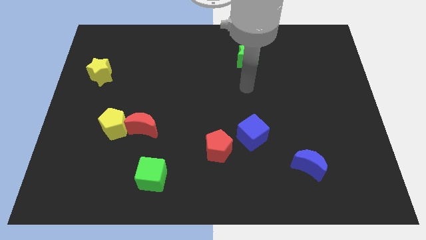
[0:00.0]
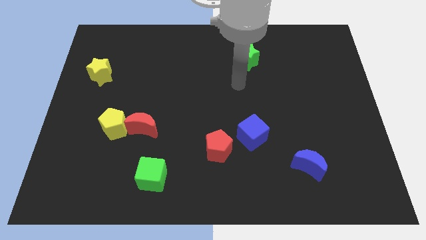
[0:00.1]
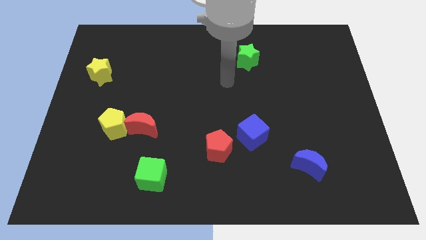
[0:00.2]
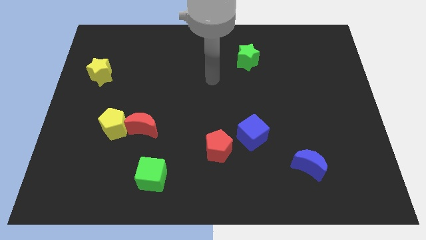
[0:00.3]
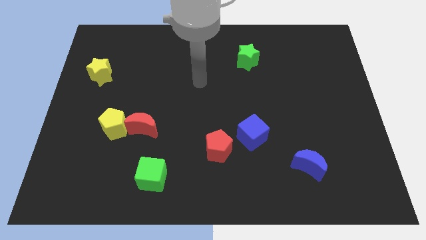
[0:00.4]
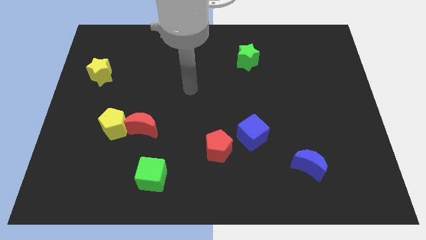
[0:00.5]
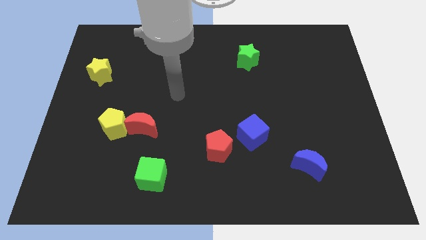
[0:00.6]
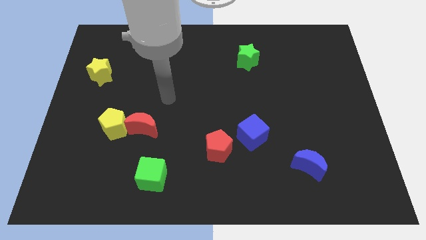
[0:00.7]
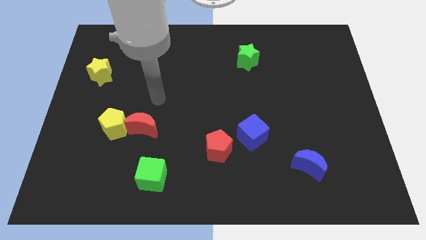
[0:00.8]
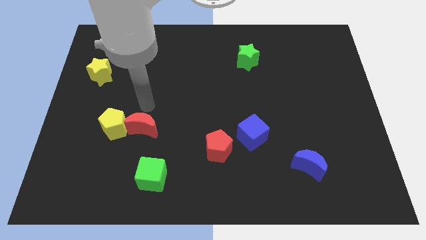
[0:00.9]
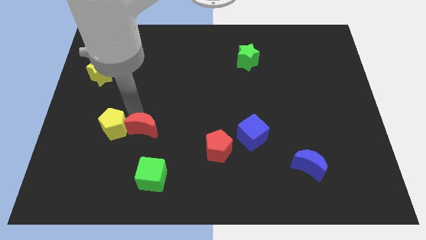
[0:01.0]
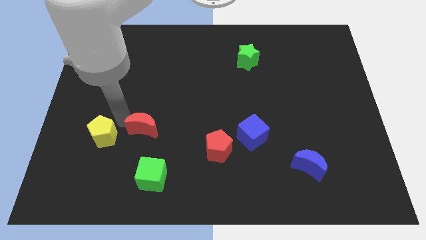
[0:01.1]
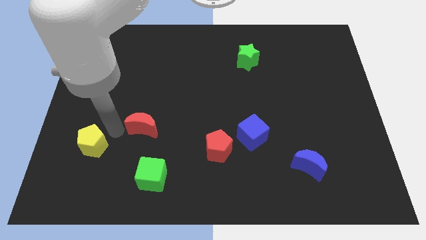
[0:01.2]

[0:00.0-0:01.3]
pull the red moon apart from the yellow pentagon

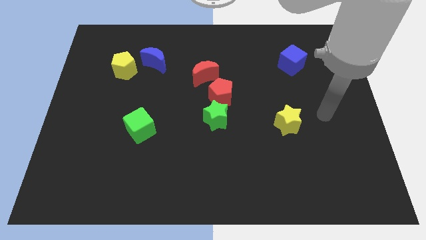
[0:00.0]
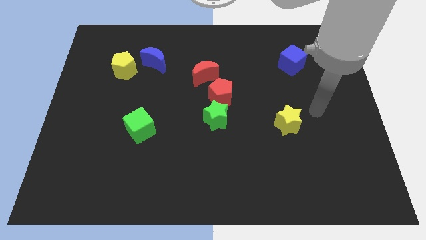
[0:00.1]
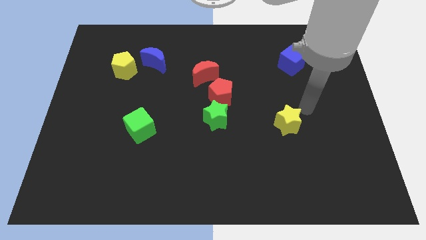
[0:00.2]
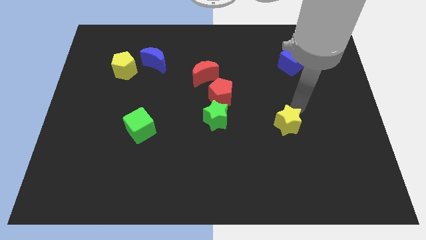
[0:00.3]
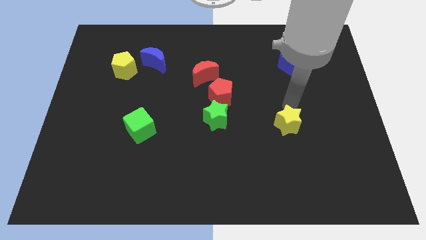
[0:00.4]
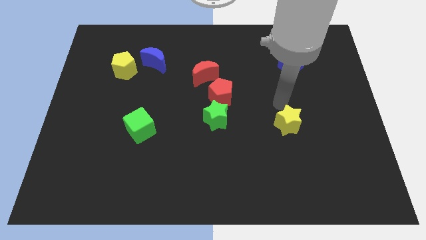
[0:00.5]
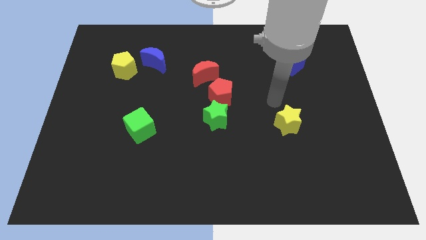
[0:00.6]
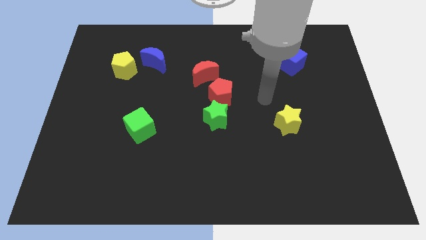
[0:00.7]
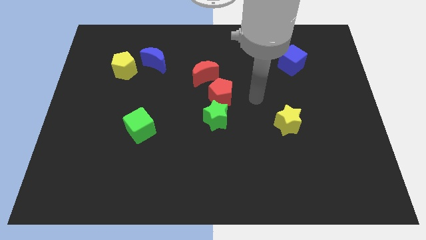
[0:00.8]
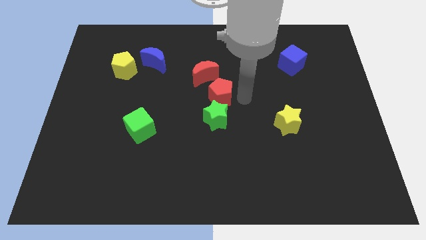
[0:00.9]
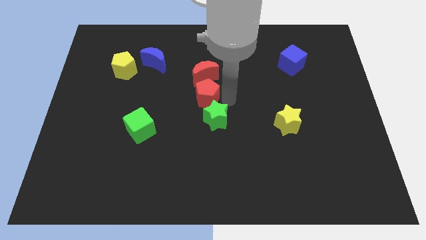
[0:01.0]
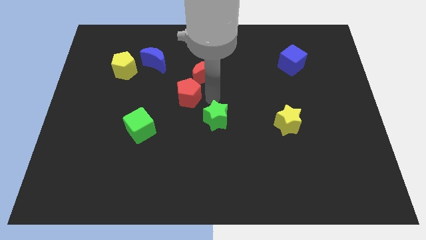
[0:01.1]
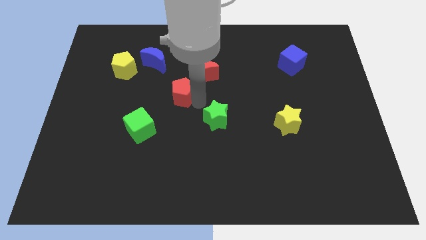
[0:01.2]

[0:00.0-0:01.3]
separate the green star from the red pentagon

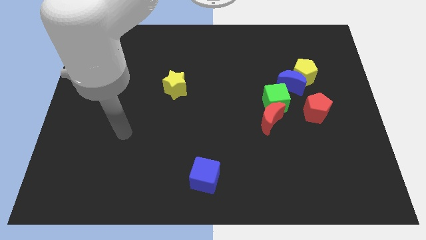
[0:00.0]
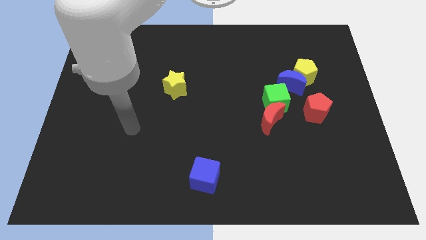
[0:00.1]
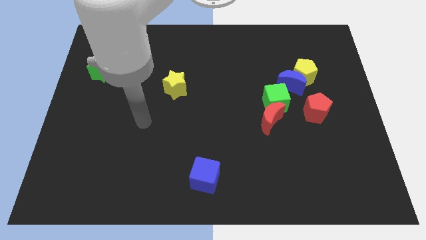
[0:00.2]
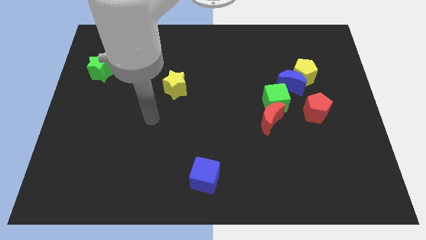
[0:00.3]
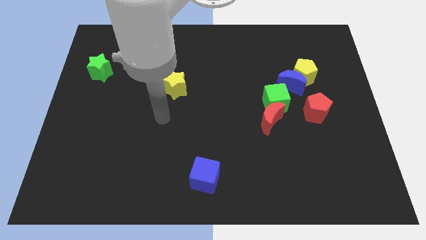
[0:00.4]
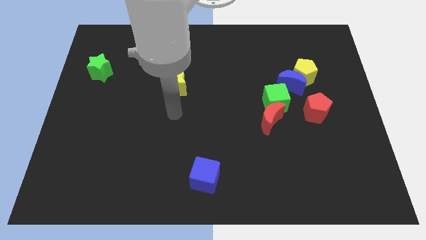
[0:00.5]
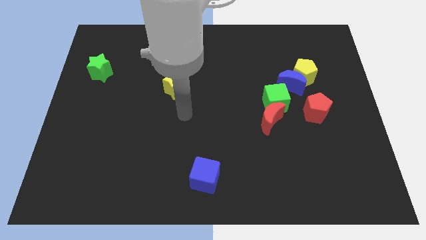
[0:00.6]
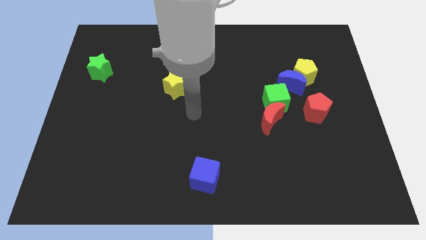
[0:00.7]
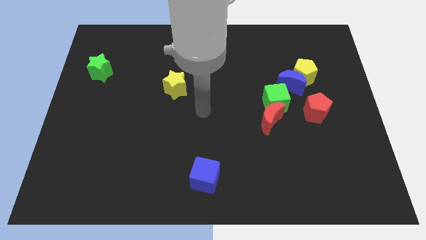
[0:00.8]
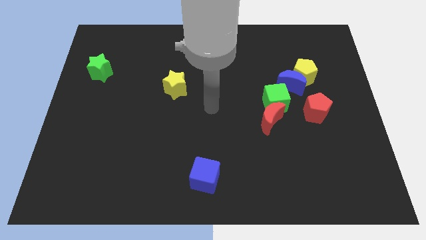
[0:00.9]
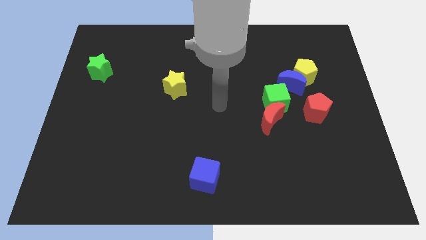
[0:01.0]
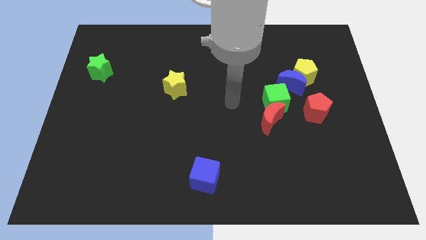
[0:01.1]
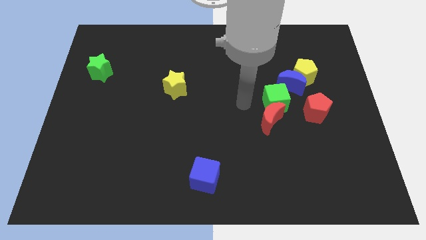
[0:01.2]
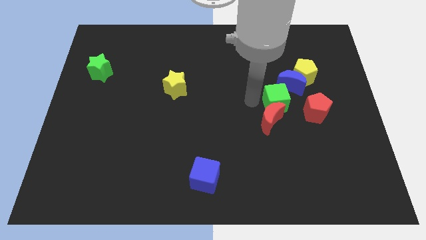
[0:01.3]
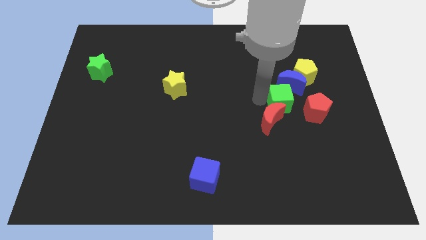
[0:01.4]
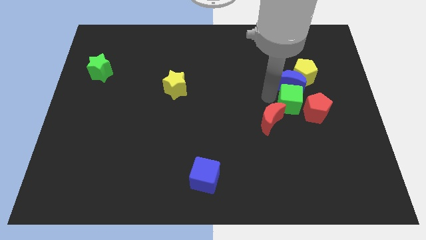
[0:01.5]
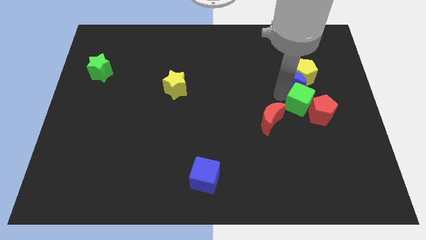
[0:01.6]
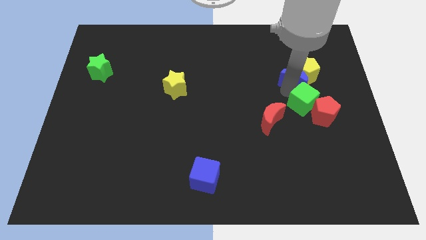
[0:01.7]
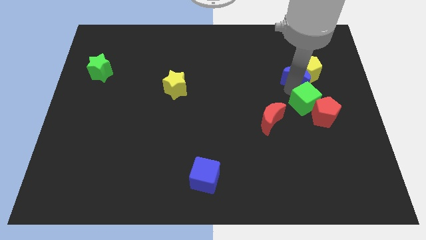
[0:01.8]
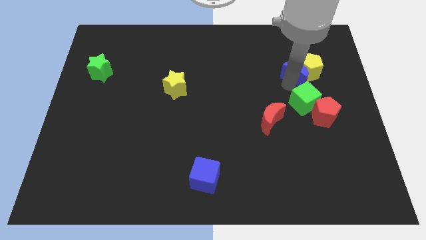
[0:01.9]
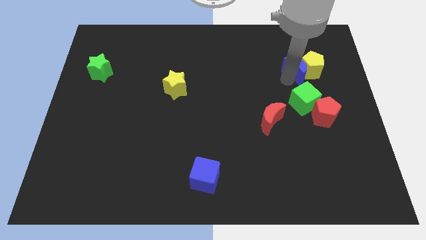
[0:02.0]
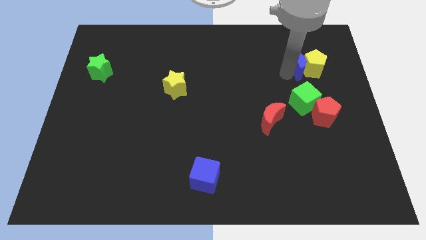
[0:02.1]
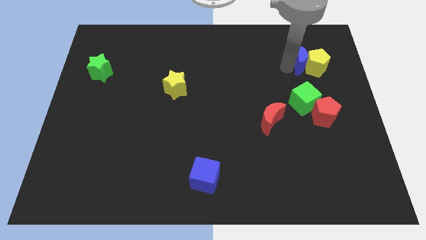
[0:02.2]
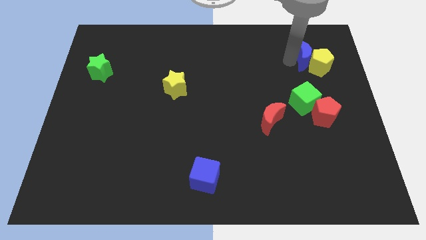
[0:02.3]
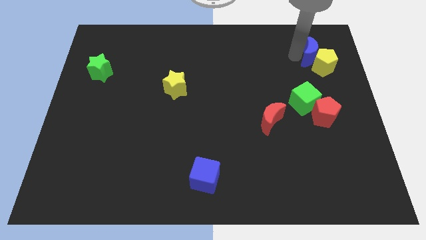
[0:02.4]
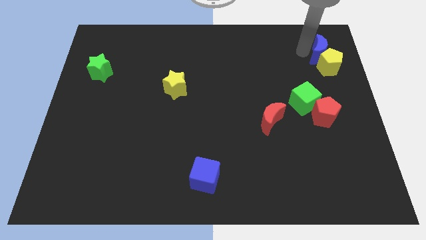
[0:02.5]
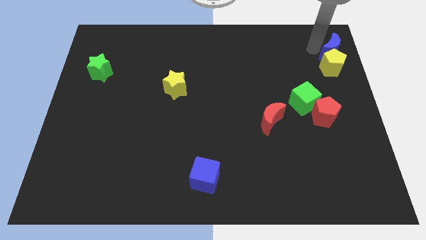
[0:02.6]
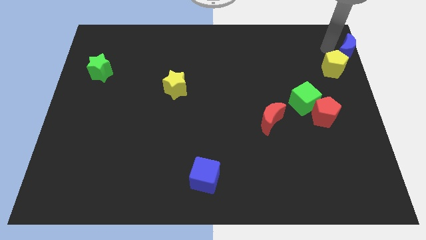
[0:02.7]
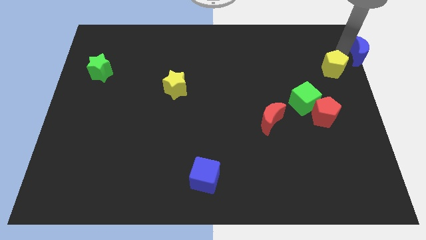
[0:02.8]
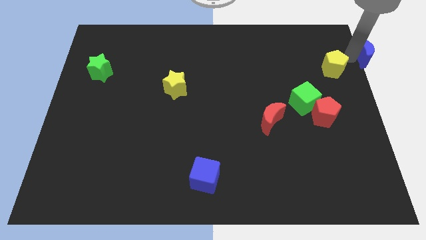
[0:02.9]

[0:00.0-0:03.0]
move the yellow pentagon away from the blue moon

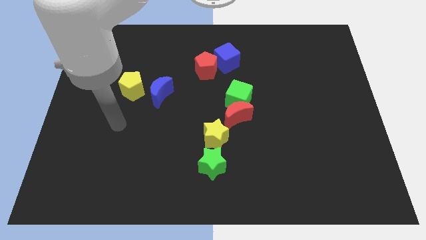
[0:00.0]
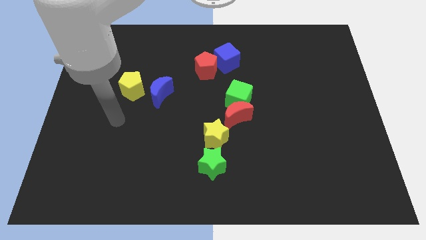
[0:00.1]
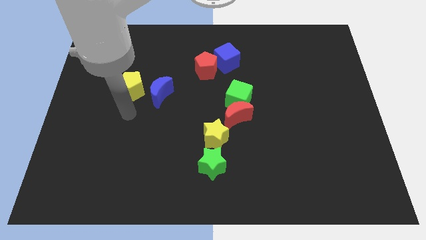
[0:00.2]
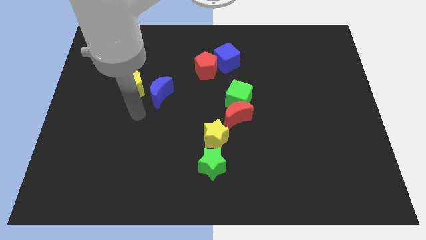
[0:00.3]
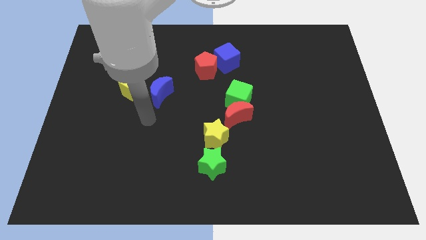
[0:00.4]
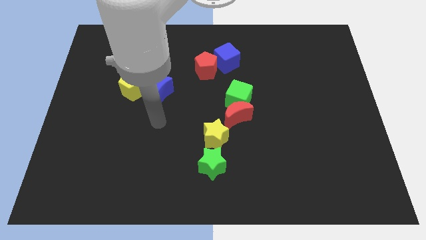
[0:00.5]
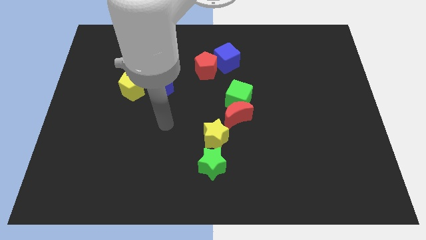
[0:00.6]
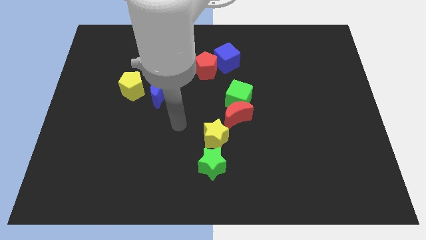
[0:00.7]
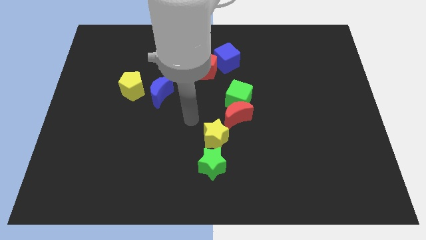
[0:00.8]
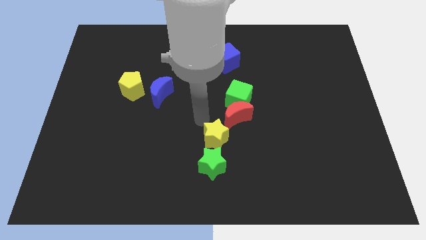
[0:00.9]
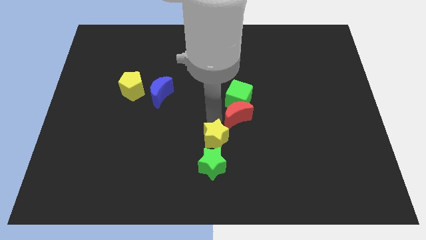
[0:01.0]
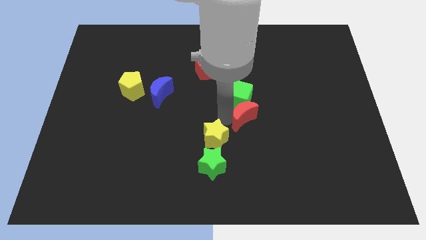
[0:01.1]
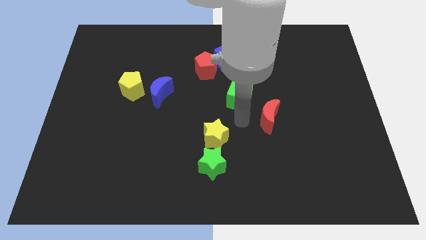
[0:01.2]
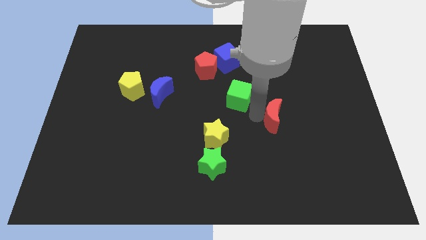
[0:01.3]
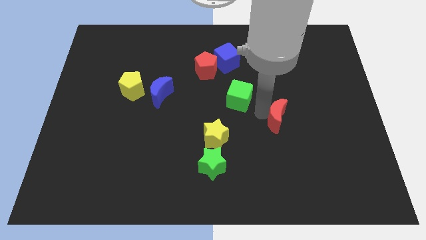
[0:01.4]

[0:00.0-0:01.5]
move the green cube away from the red moon

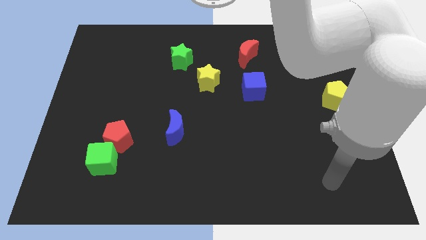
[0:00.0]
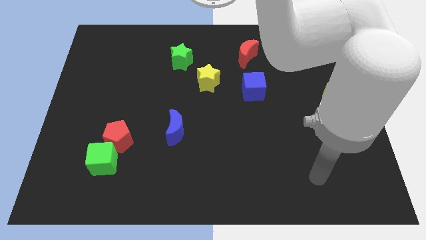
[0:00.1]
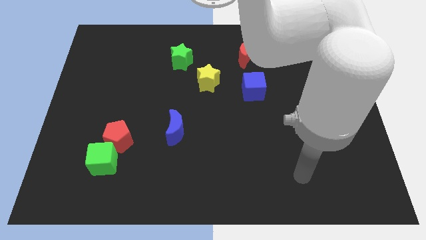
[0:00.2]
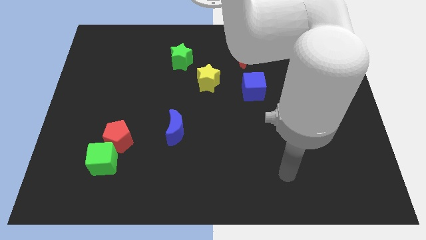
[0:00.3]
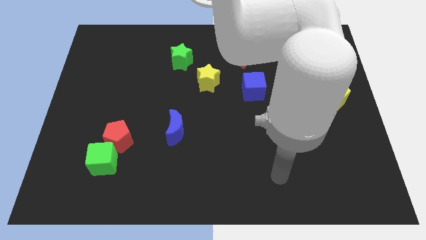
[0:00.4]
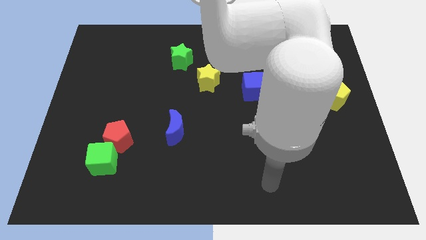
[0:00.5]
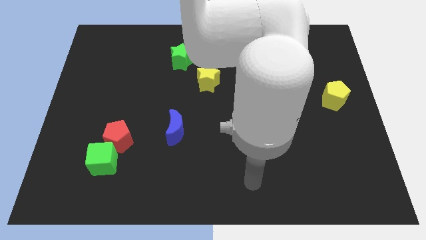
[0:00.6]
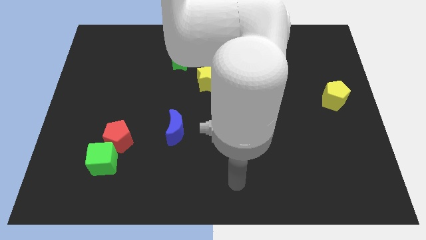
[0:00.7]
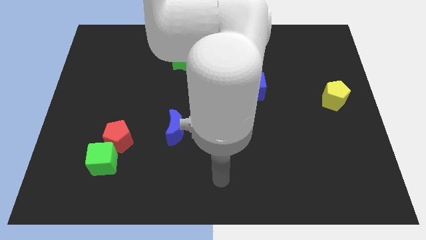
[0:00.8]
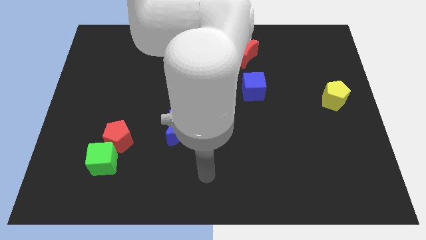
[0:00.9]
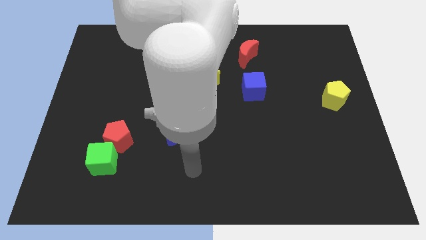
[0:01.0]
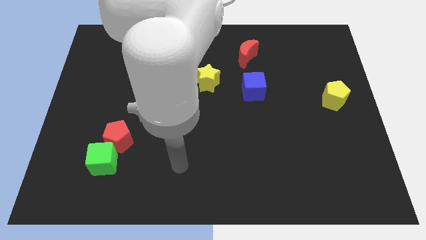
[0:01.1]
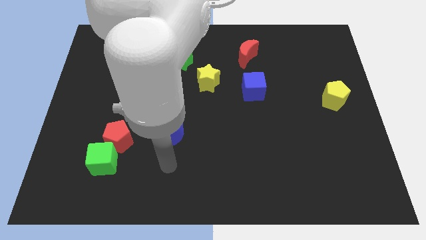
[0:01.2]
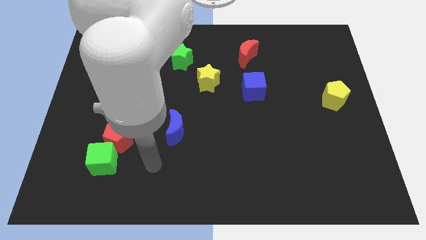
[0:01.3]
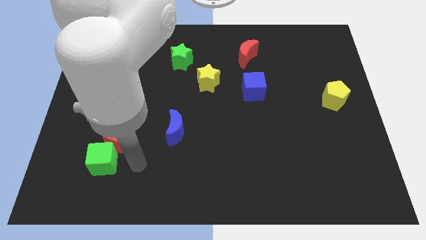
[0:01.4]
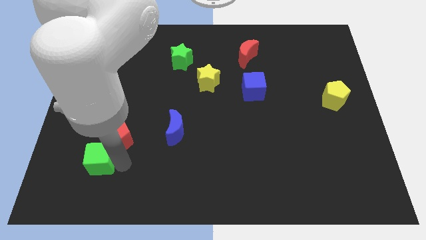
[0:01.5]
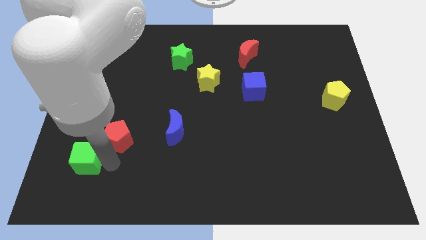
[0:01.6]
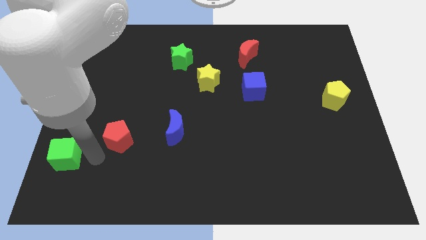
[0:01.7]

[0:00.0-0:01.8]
separate the red pentagon from the green cube

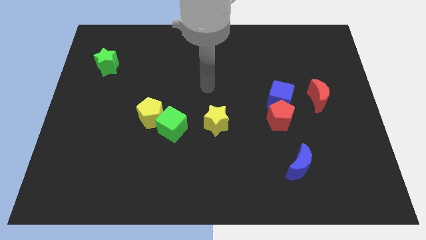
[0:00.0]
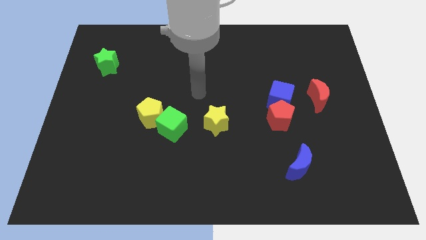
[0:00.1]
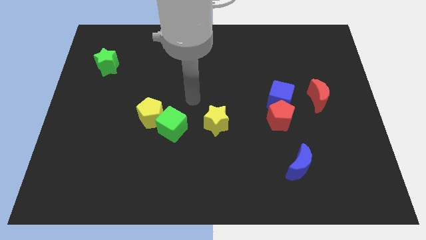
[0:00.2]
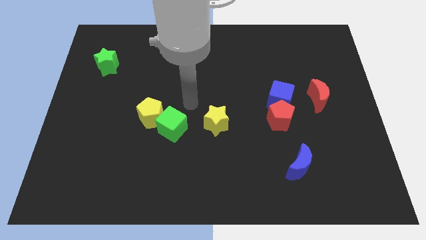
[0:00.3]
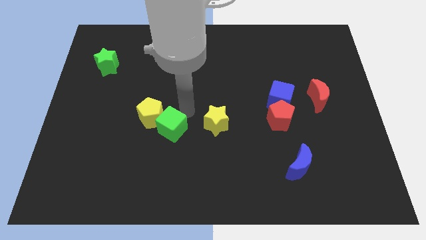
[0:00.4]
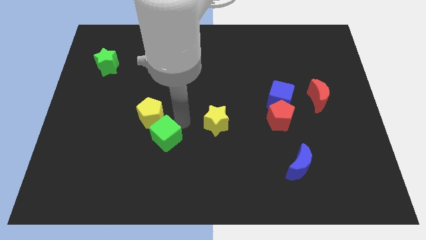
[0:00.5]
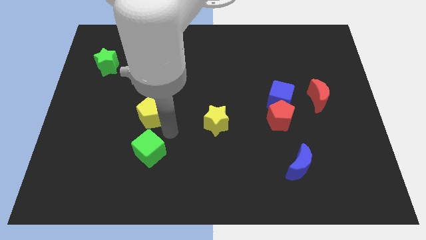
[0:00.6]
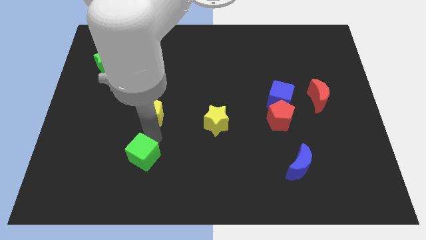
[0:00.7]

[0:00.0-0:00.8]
separate the yellow pentagon from the green cube
